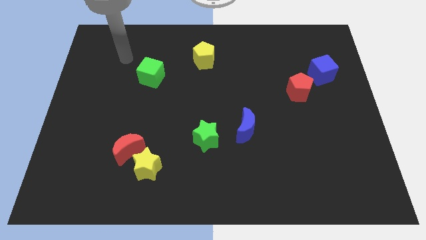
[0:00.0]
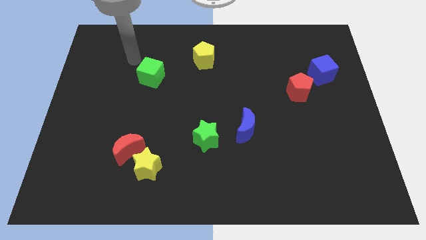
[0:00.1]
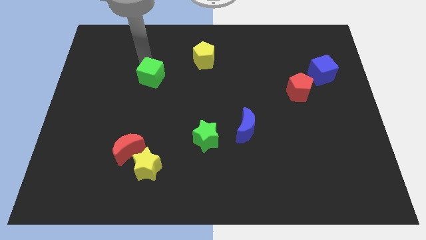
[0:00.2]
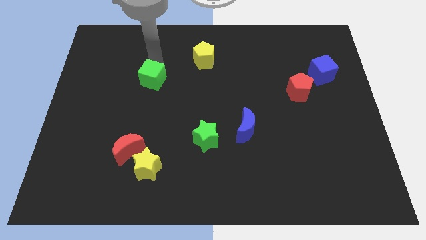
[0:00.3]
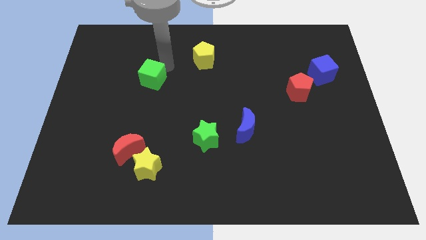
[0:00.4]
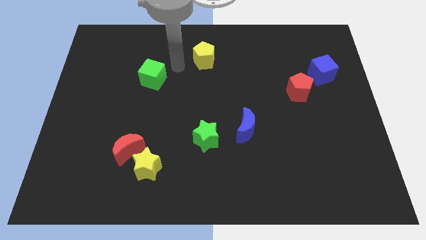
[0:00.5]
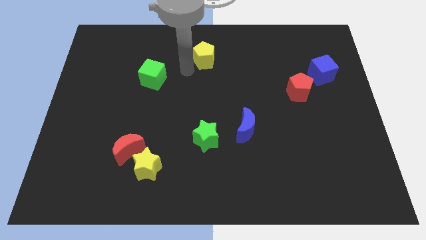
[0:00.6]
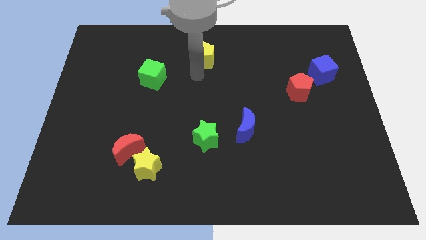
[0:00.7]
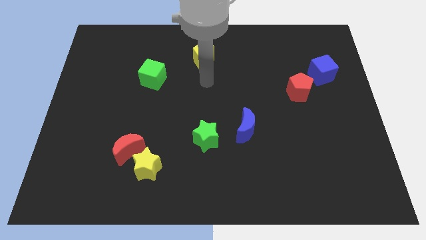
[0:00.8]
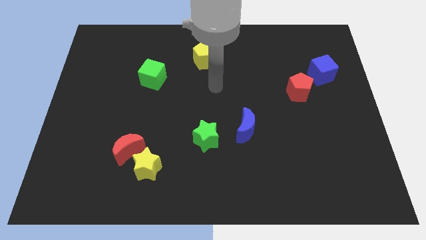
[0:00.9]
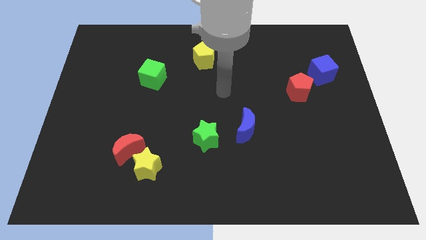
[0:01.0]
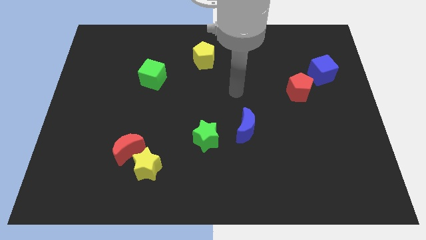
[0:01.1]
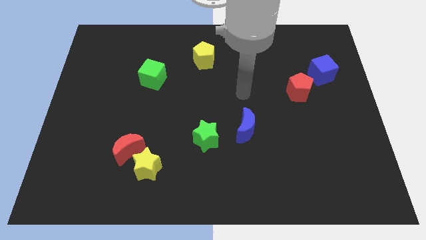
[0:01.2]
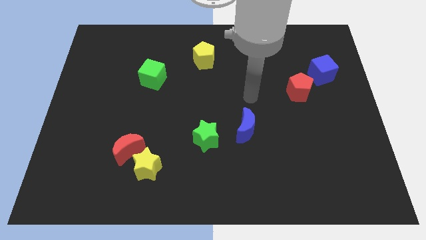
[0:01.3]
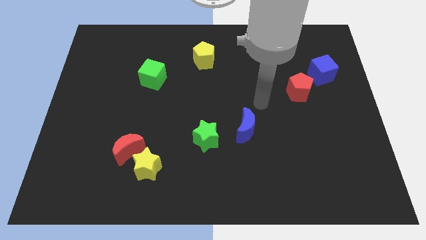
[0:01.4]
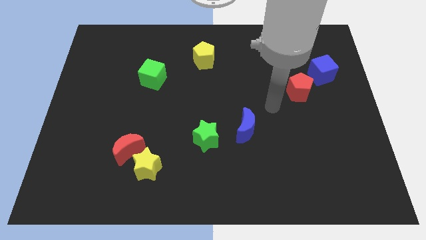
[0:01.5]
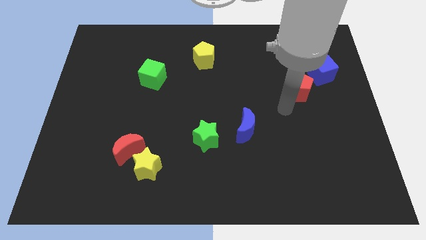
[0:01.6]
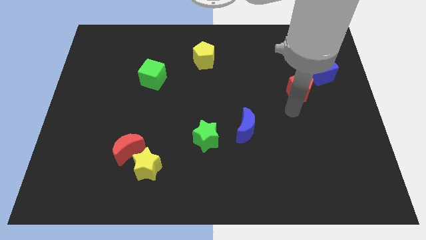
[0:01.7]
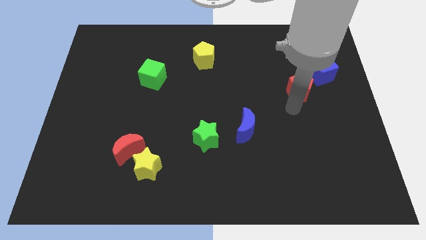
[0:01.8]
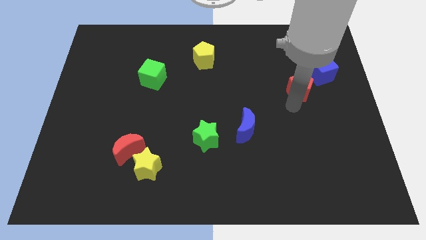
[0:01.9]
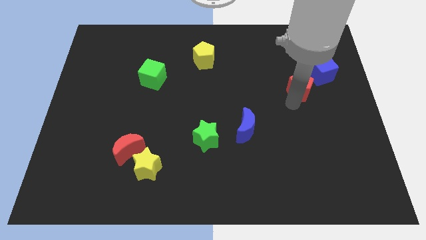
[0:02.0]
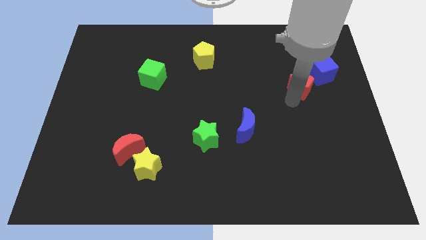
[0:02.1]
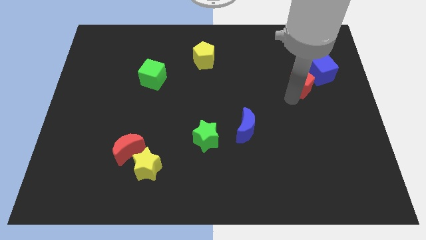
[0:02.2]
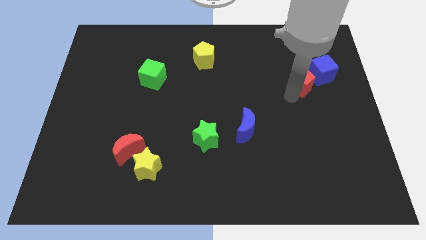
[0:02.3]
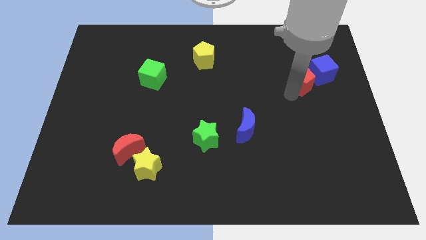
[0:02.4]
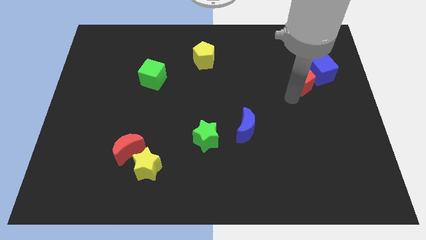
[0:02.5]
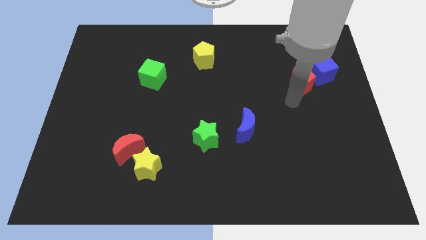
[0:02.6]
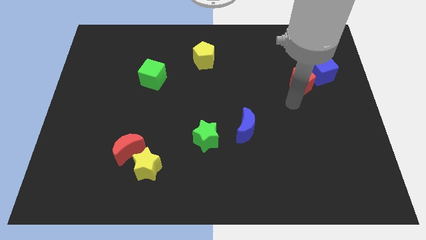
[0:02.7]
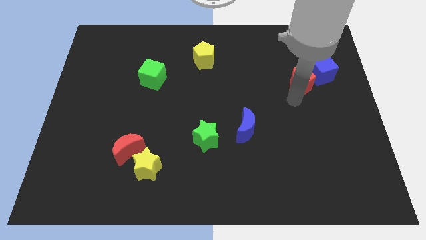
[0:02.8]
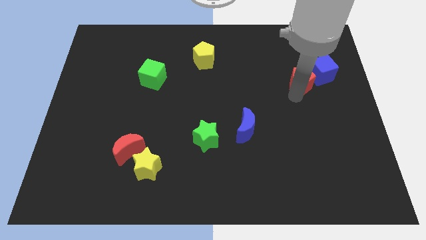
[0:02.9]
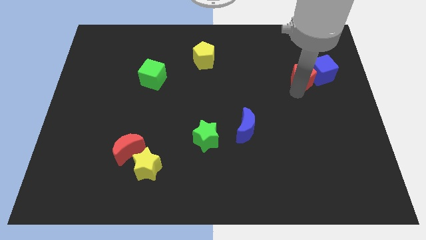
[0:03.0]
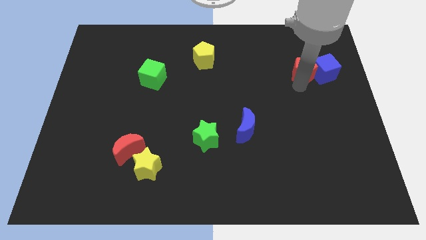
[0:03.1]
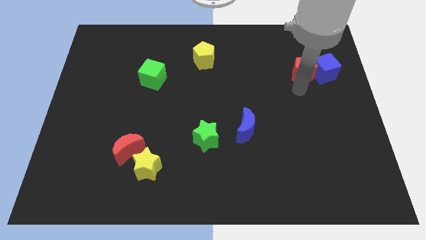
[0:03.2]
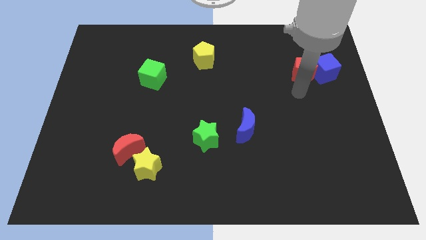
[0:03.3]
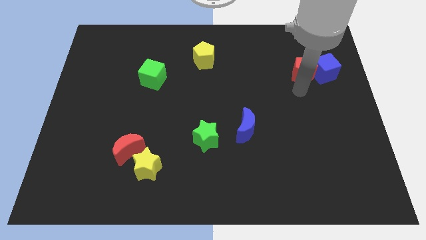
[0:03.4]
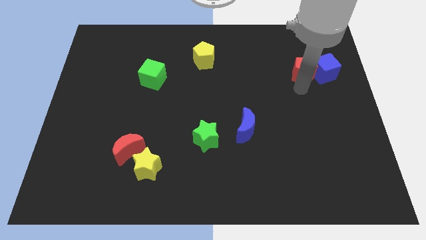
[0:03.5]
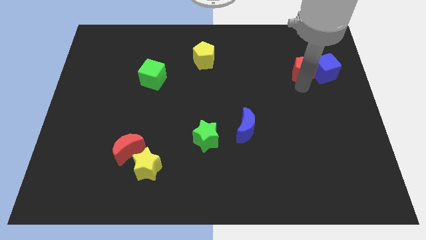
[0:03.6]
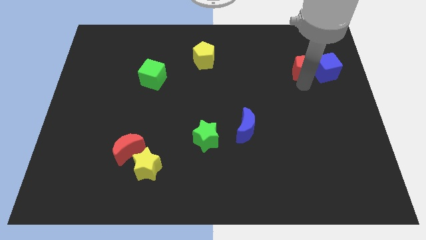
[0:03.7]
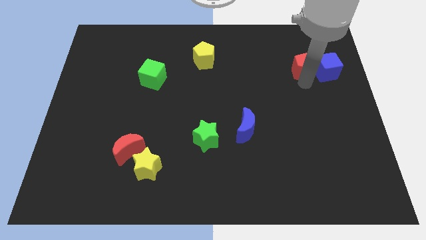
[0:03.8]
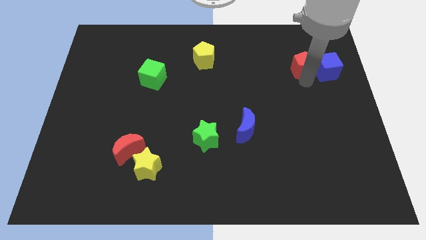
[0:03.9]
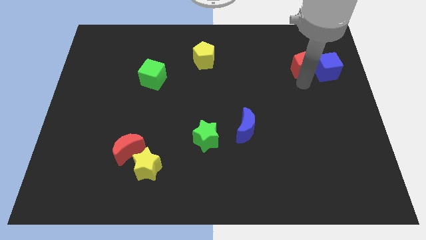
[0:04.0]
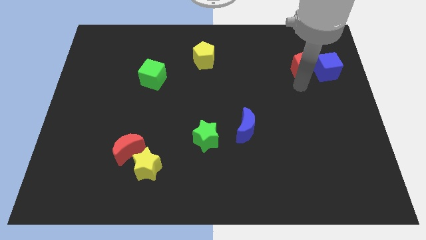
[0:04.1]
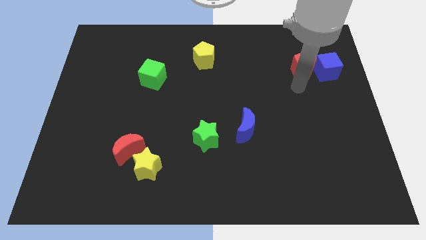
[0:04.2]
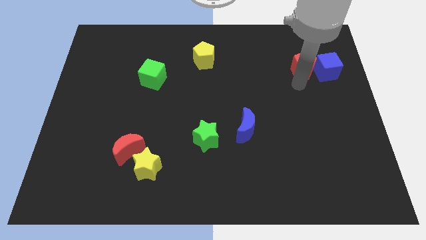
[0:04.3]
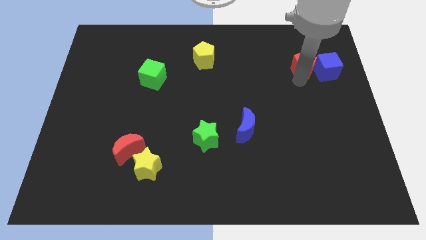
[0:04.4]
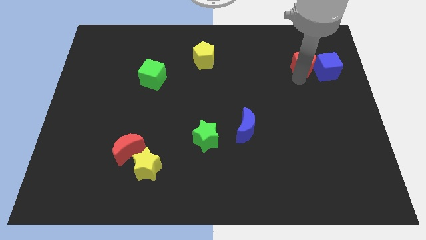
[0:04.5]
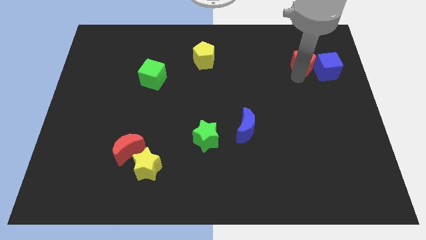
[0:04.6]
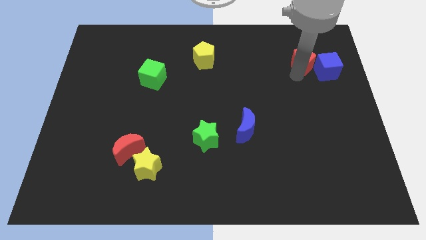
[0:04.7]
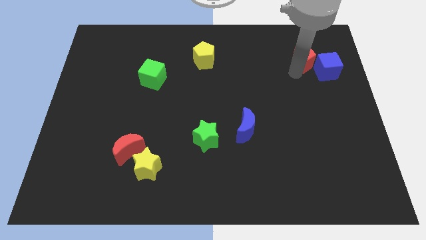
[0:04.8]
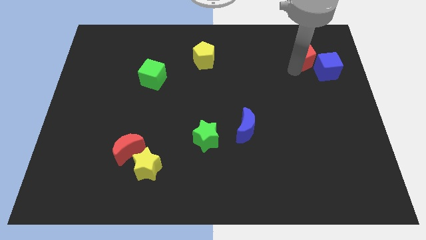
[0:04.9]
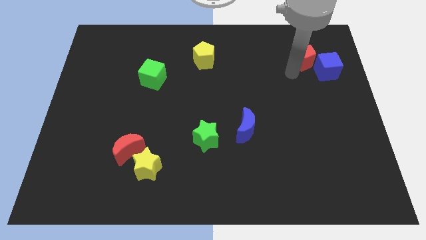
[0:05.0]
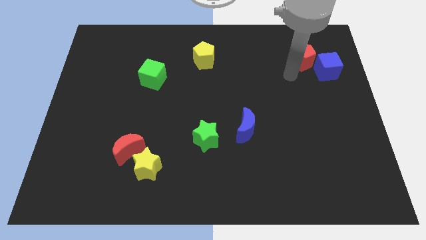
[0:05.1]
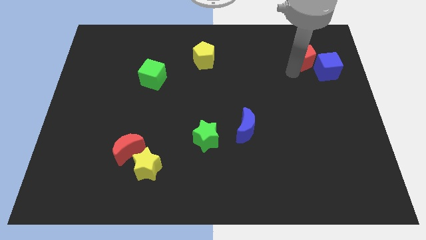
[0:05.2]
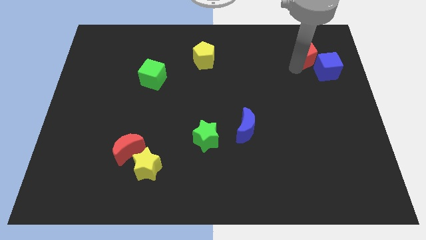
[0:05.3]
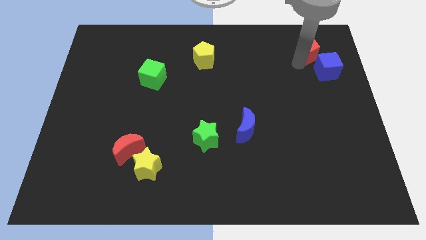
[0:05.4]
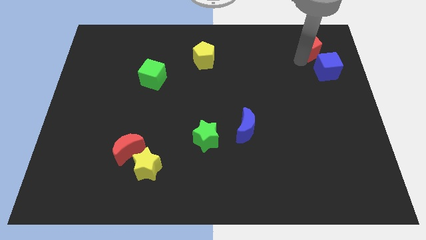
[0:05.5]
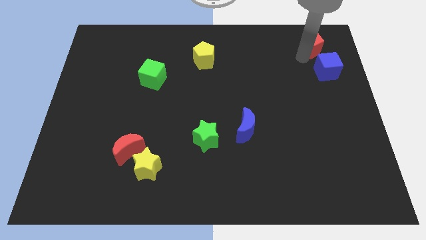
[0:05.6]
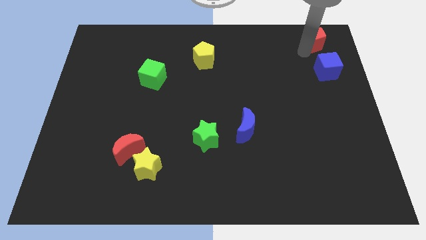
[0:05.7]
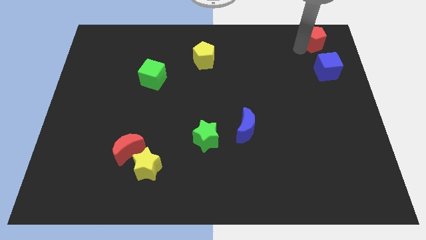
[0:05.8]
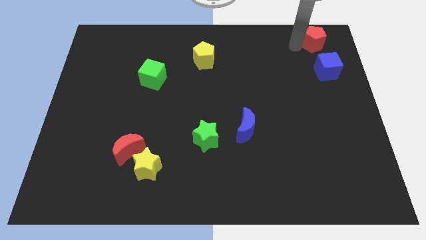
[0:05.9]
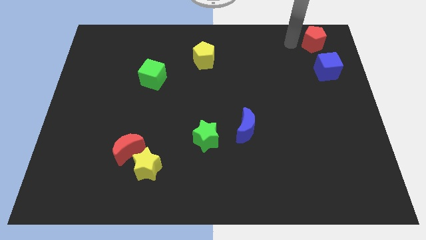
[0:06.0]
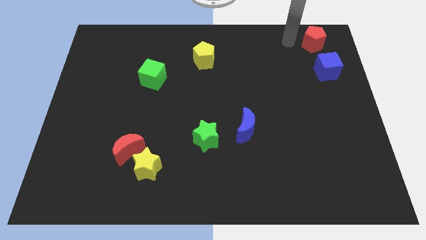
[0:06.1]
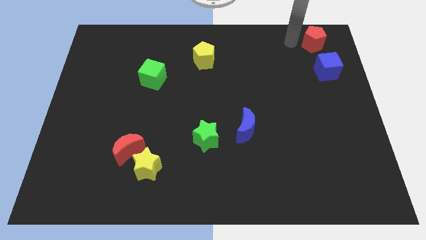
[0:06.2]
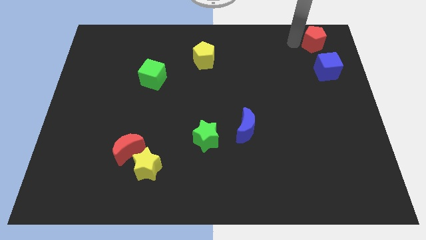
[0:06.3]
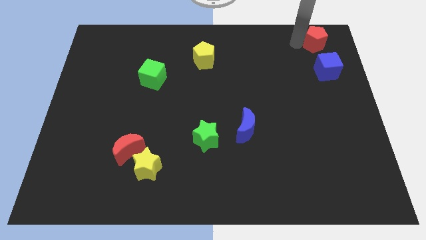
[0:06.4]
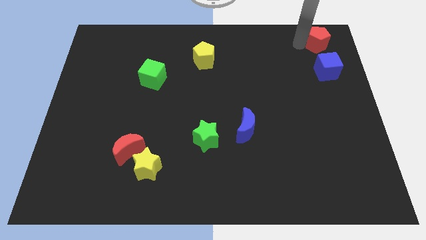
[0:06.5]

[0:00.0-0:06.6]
push the red pentagon to the top right of the board

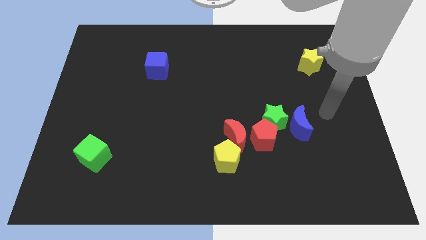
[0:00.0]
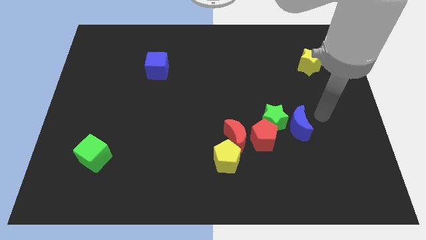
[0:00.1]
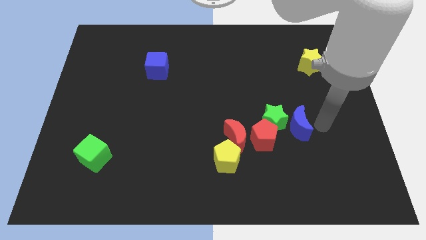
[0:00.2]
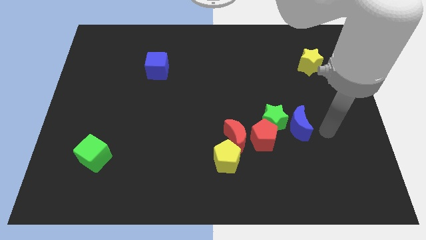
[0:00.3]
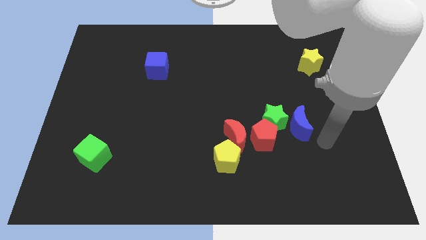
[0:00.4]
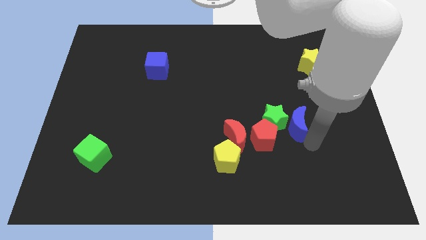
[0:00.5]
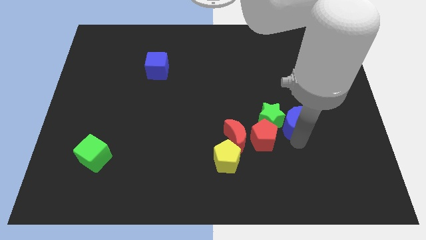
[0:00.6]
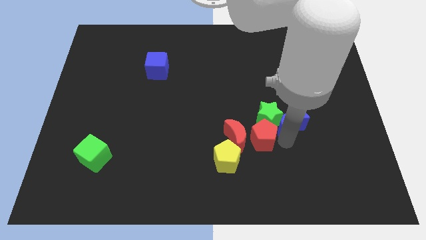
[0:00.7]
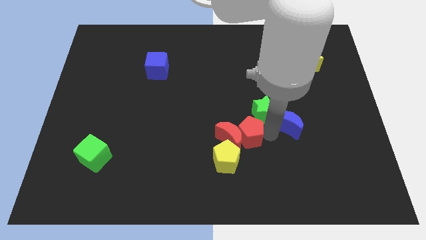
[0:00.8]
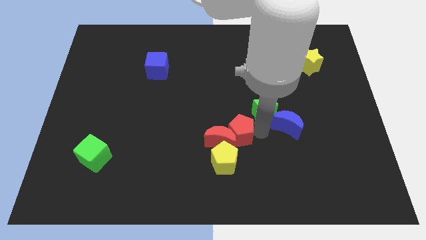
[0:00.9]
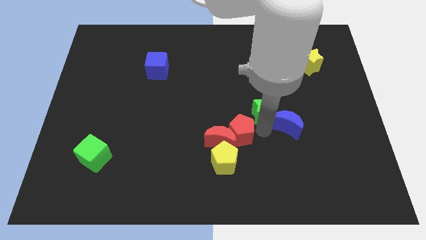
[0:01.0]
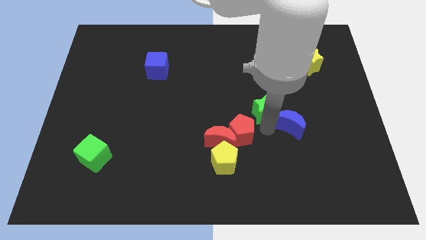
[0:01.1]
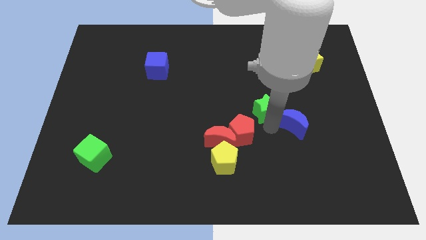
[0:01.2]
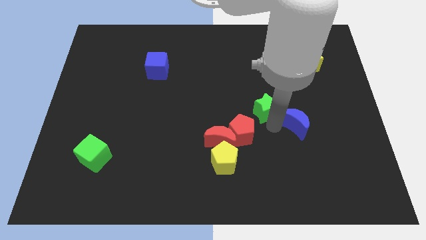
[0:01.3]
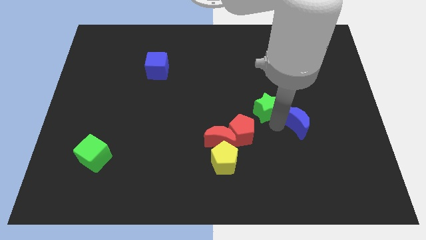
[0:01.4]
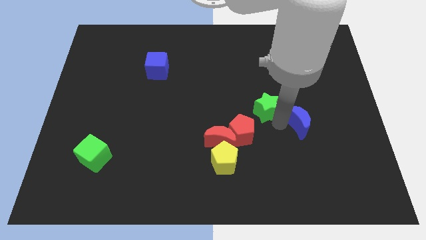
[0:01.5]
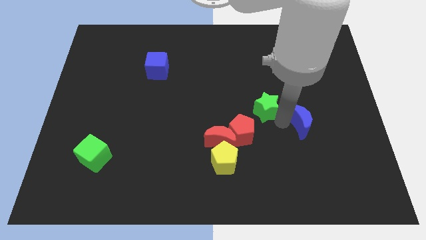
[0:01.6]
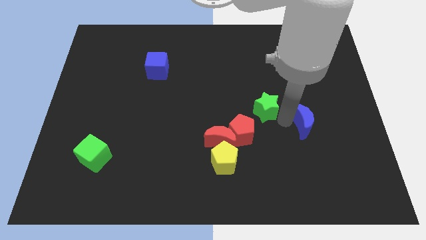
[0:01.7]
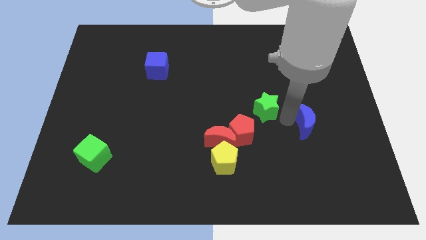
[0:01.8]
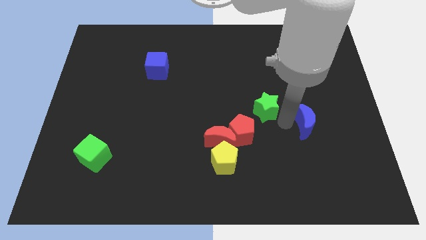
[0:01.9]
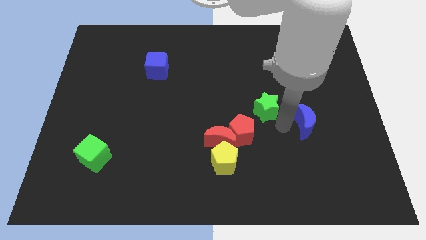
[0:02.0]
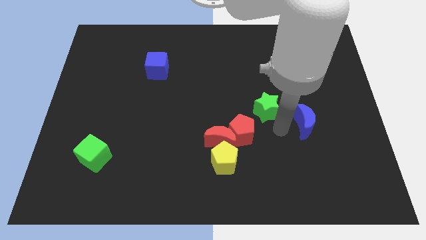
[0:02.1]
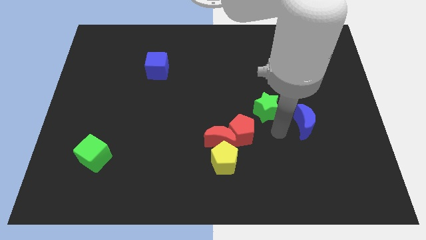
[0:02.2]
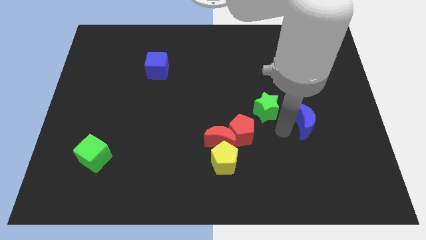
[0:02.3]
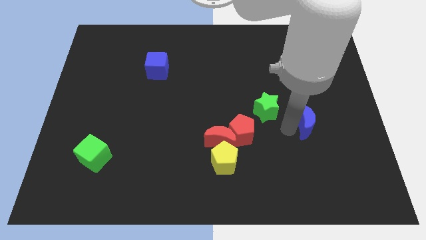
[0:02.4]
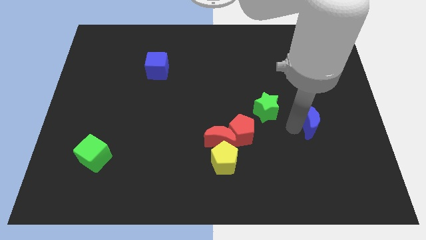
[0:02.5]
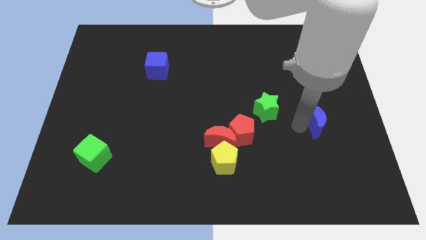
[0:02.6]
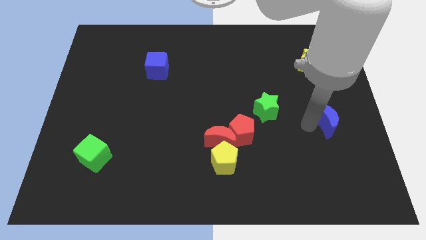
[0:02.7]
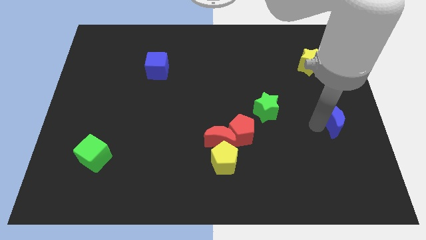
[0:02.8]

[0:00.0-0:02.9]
push the blue moon to the center right
